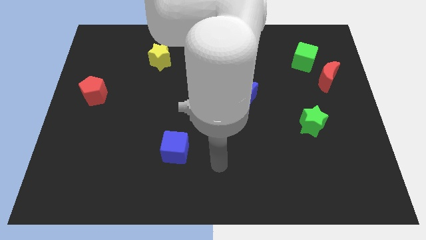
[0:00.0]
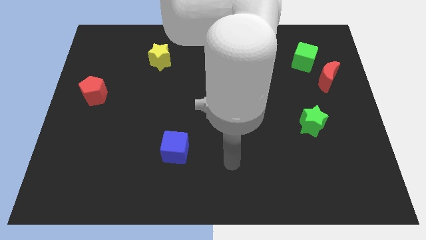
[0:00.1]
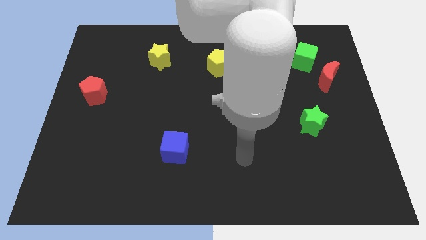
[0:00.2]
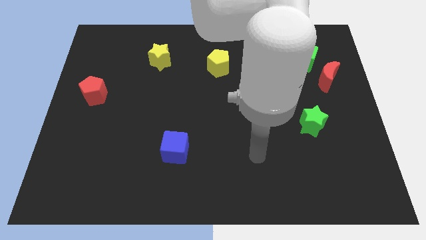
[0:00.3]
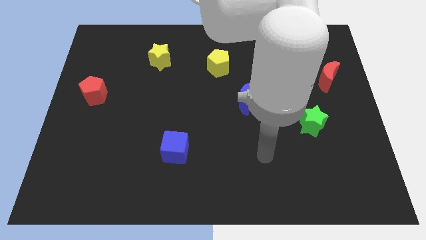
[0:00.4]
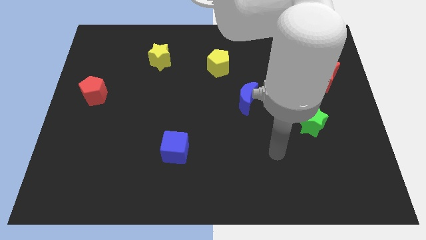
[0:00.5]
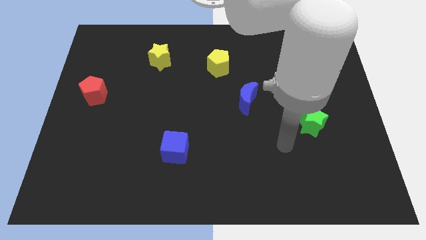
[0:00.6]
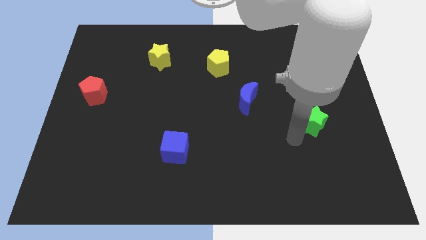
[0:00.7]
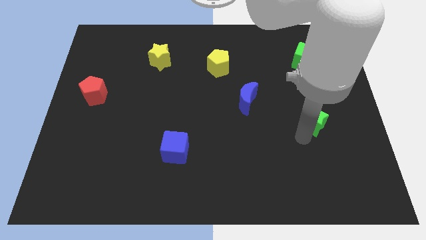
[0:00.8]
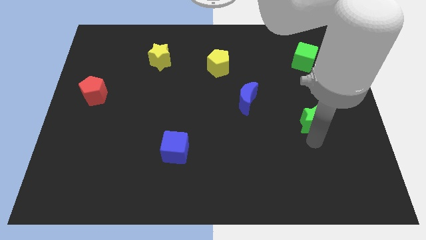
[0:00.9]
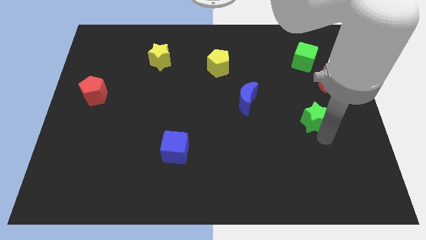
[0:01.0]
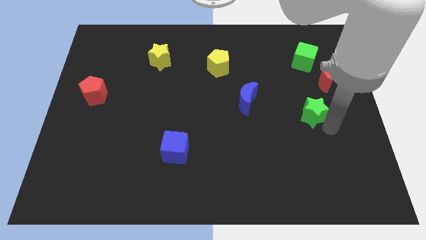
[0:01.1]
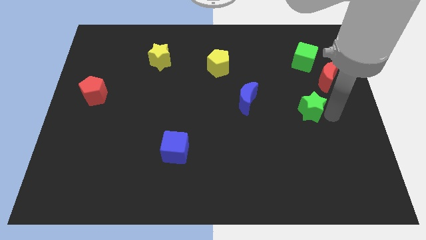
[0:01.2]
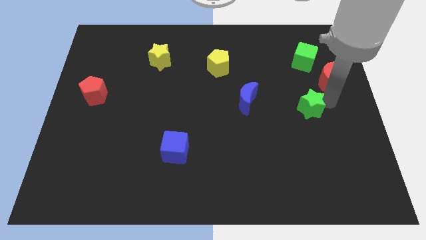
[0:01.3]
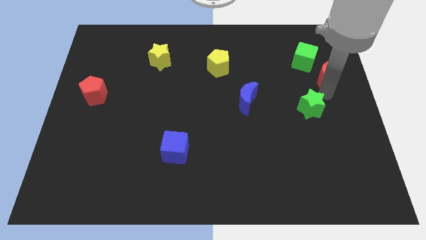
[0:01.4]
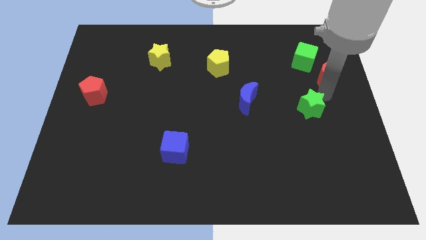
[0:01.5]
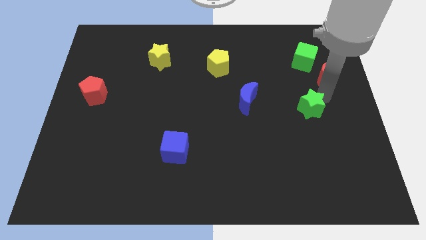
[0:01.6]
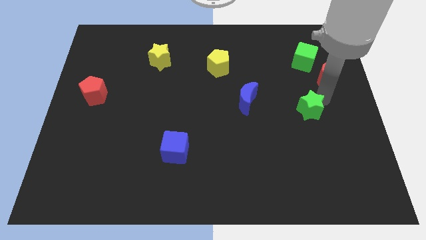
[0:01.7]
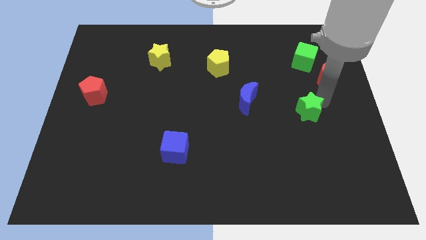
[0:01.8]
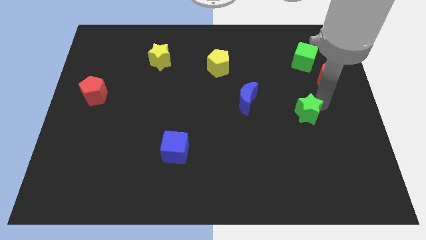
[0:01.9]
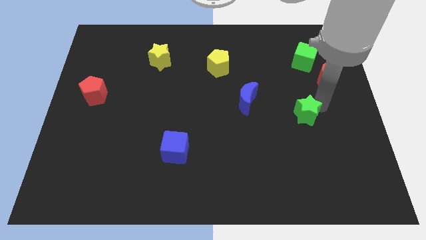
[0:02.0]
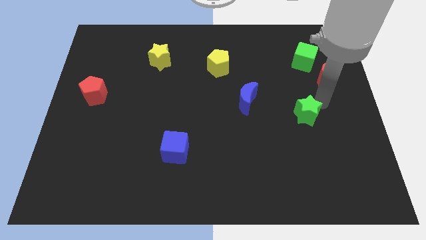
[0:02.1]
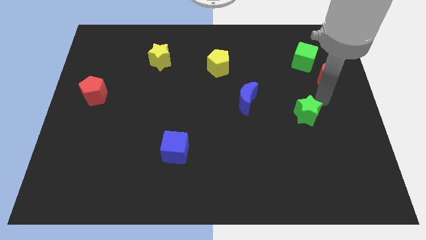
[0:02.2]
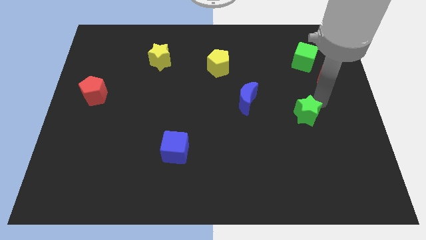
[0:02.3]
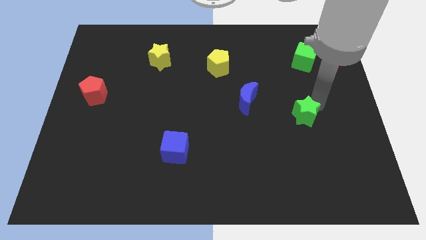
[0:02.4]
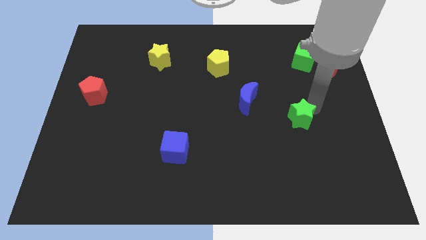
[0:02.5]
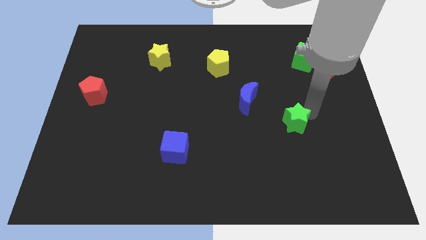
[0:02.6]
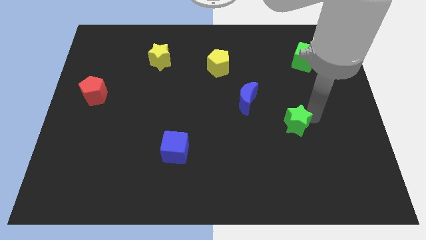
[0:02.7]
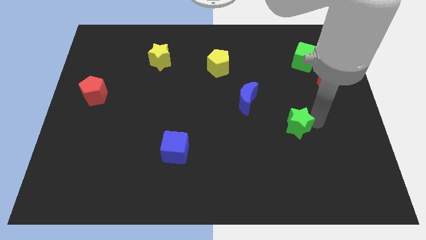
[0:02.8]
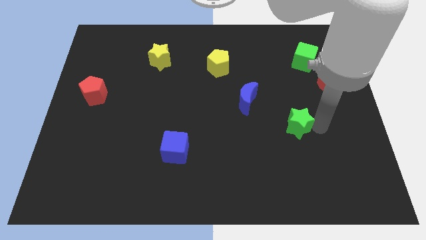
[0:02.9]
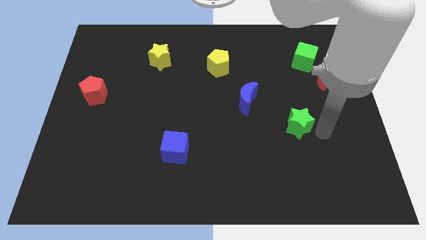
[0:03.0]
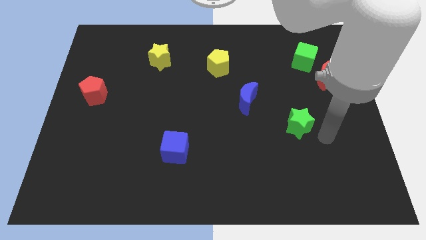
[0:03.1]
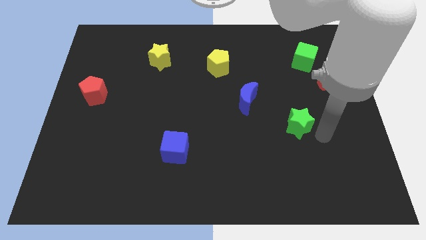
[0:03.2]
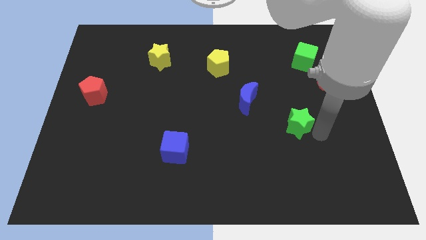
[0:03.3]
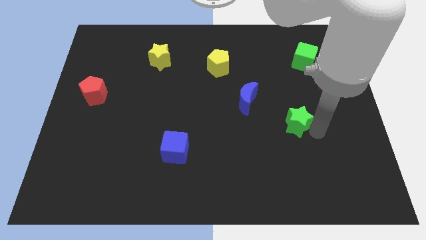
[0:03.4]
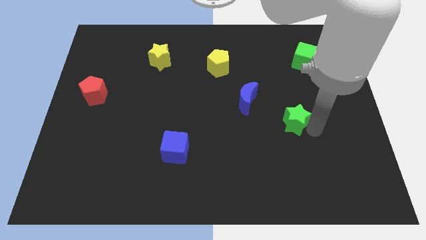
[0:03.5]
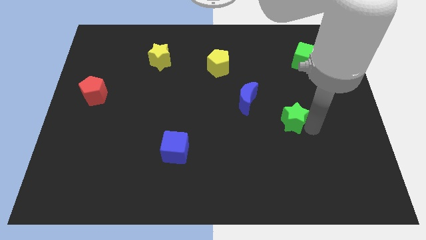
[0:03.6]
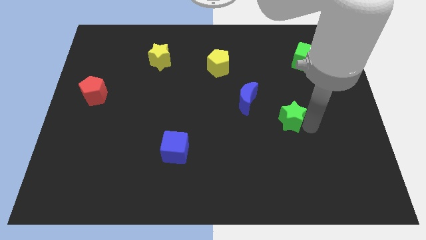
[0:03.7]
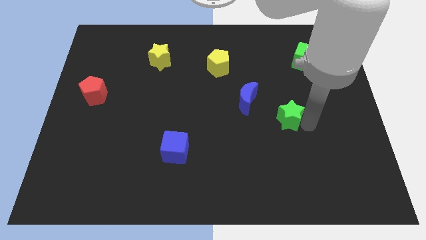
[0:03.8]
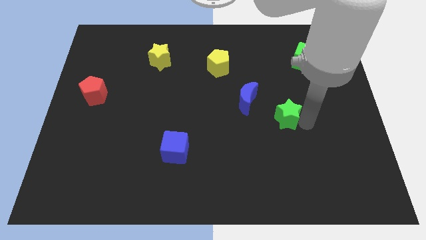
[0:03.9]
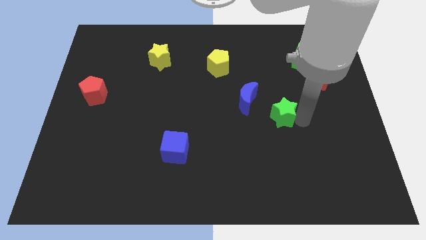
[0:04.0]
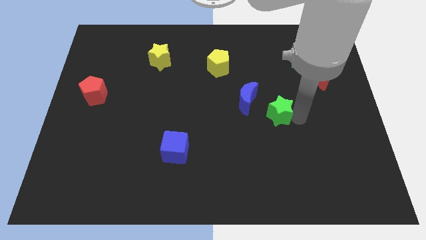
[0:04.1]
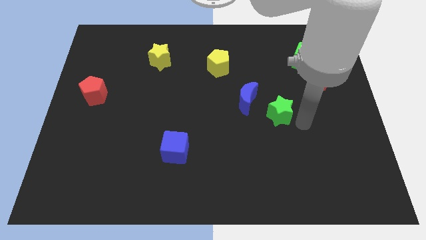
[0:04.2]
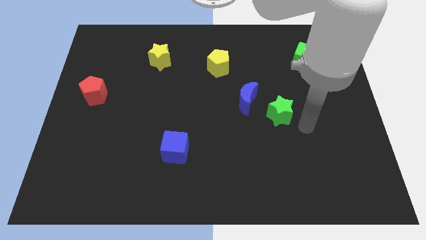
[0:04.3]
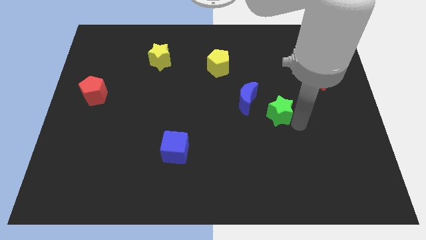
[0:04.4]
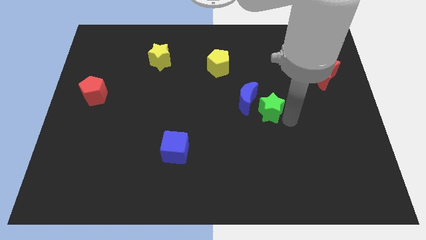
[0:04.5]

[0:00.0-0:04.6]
put the green star to the blue moon

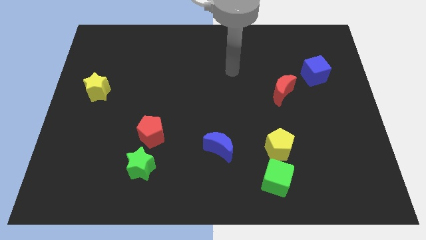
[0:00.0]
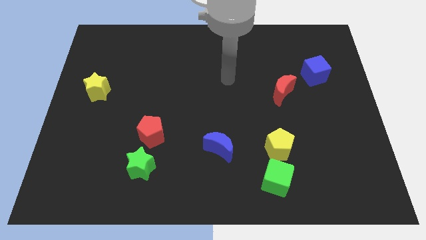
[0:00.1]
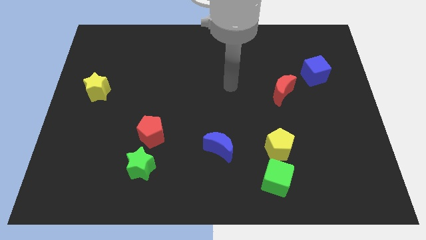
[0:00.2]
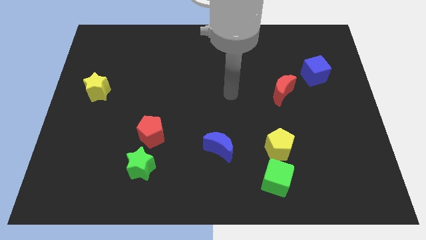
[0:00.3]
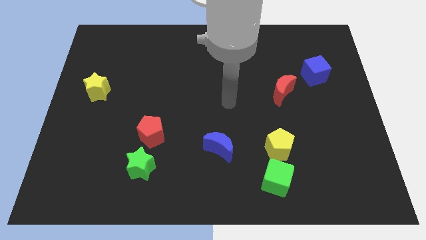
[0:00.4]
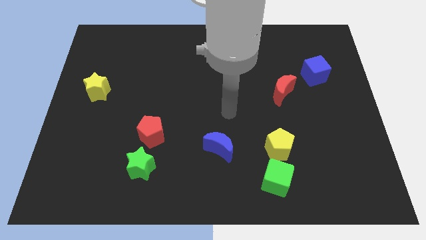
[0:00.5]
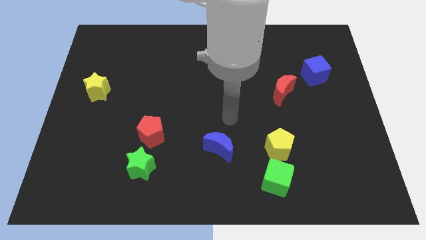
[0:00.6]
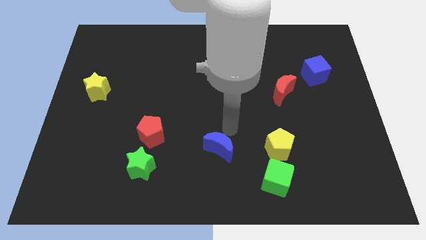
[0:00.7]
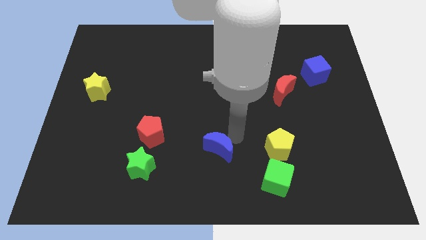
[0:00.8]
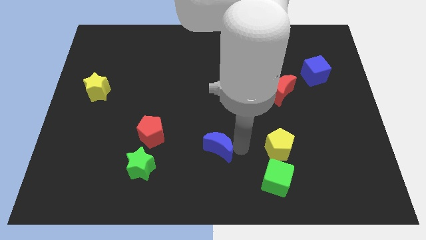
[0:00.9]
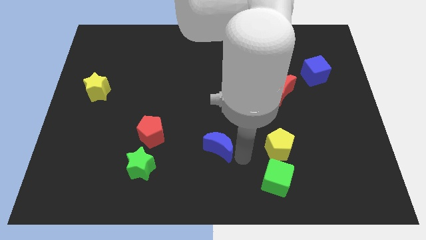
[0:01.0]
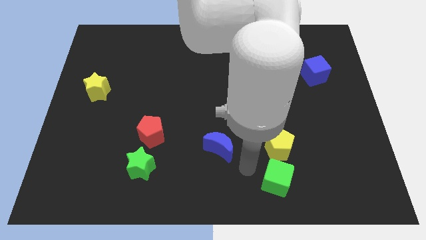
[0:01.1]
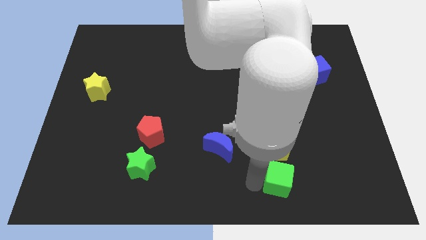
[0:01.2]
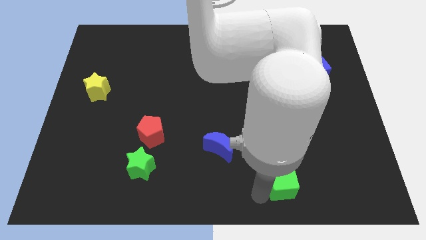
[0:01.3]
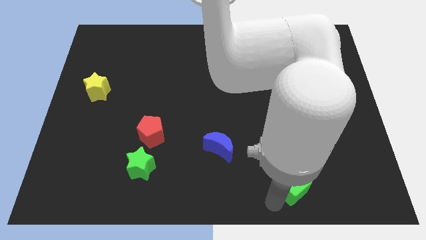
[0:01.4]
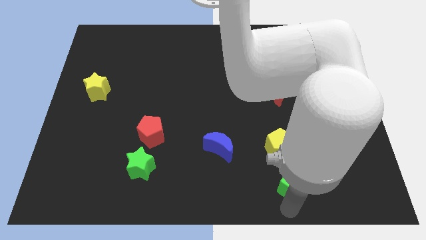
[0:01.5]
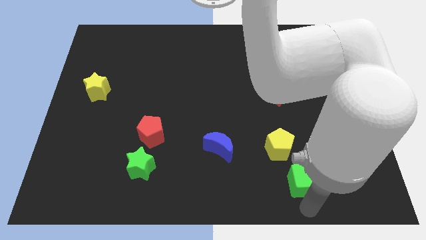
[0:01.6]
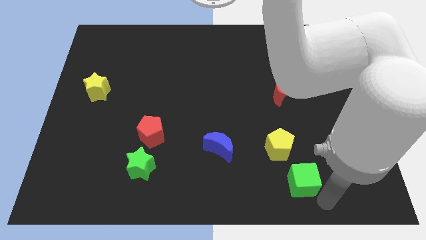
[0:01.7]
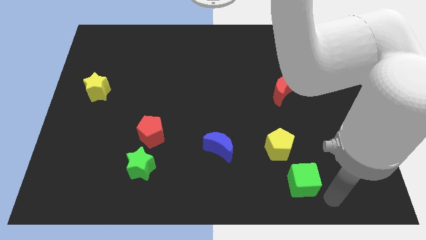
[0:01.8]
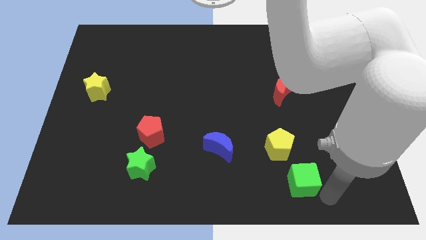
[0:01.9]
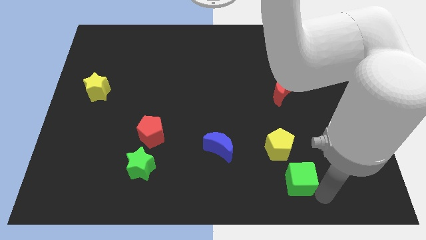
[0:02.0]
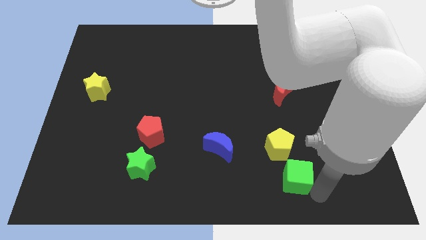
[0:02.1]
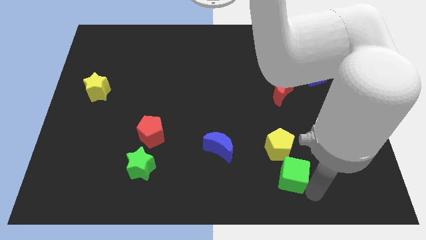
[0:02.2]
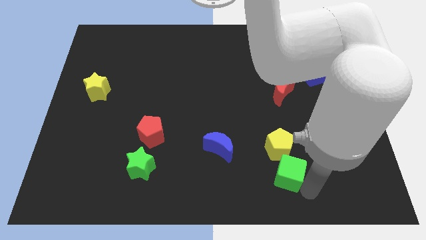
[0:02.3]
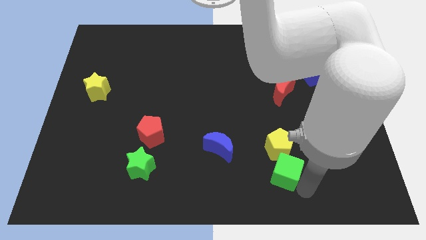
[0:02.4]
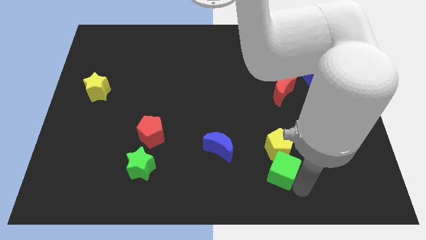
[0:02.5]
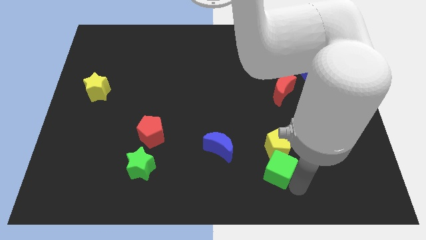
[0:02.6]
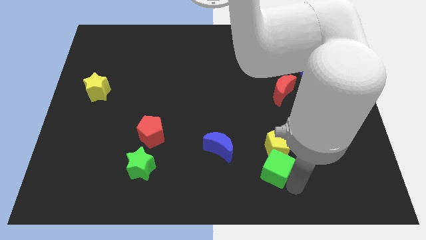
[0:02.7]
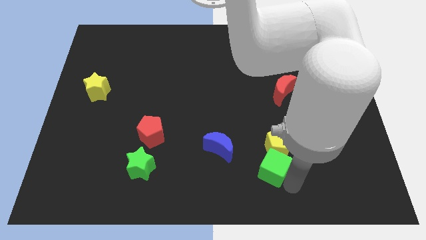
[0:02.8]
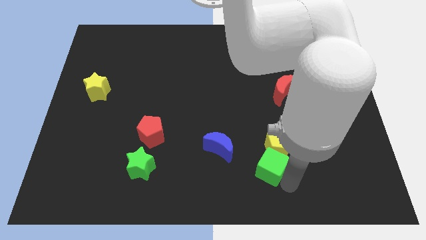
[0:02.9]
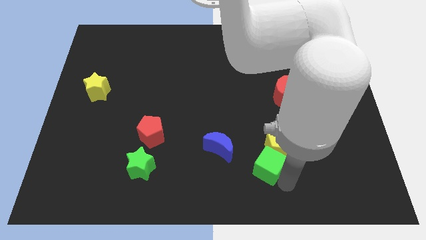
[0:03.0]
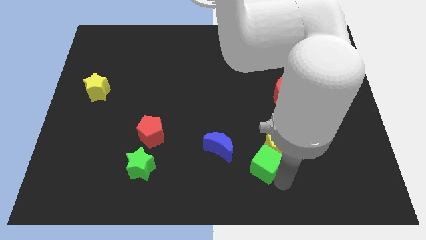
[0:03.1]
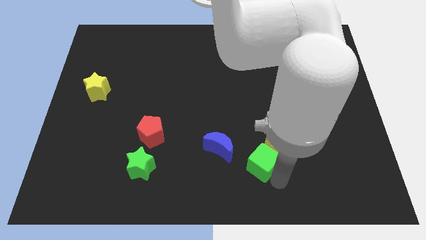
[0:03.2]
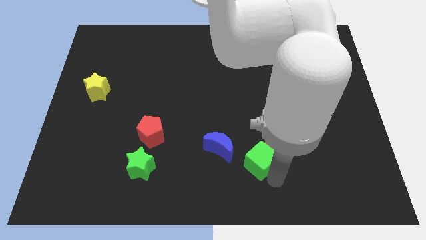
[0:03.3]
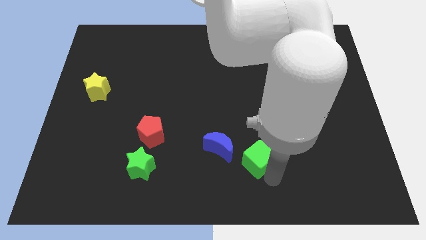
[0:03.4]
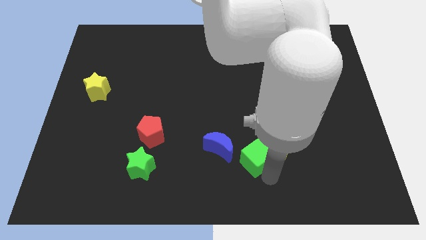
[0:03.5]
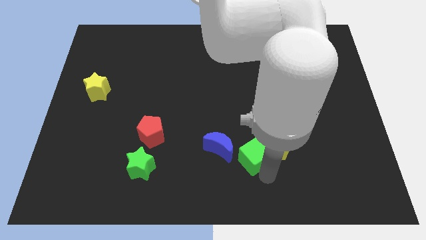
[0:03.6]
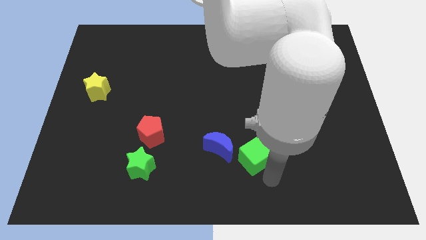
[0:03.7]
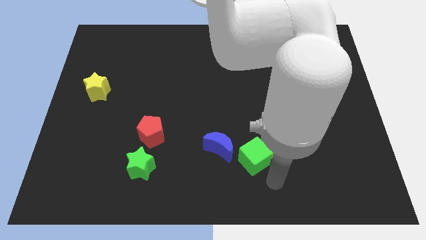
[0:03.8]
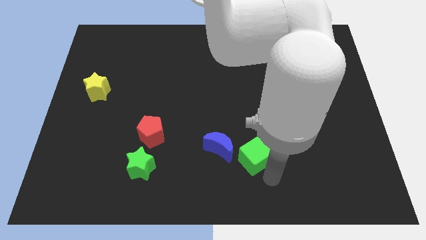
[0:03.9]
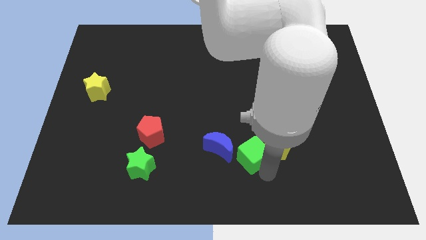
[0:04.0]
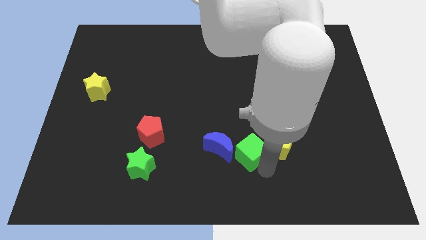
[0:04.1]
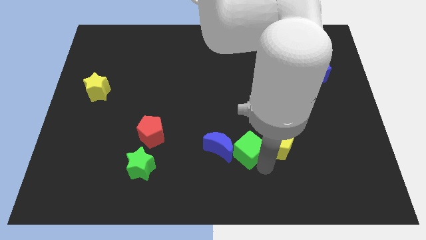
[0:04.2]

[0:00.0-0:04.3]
put the green cube towards the blue moon
